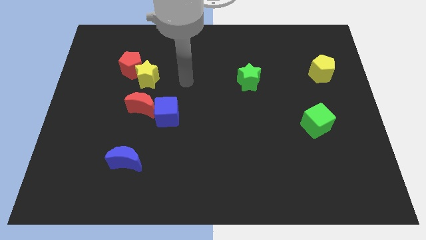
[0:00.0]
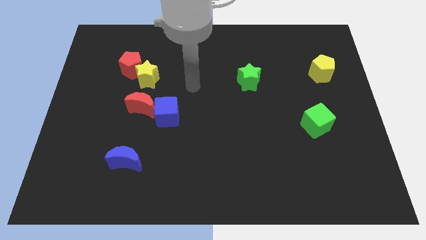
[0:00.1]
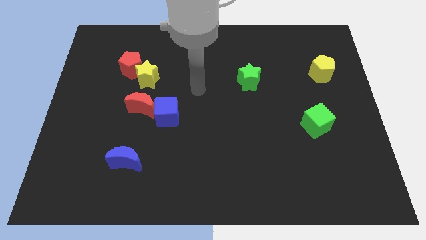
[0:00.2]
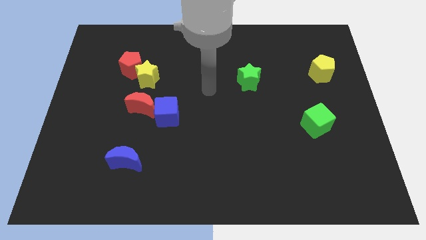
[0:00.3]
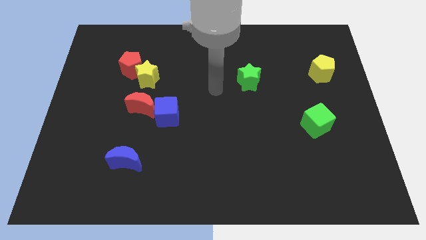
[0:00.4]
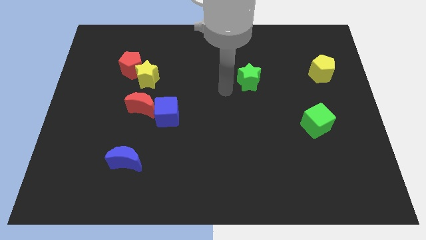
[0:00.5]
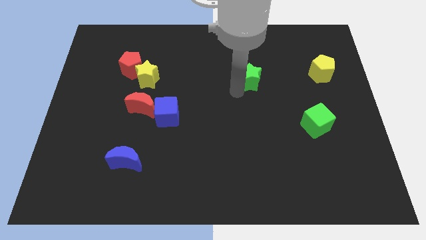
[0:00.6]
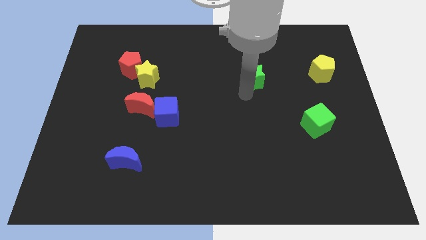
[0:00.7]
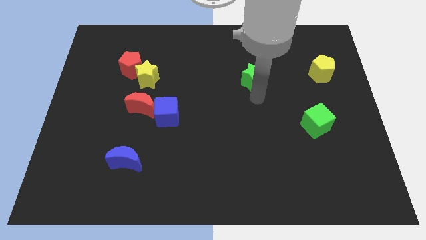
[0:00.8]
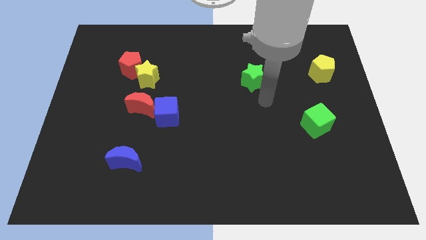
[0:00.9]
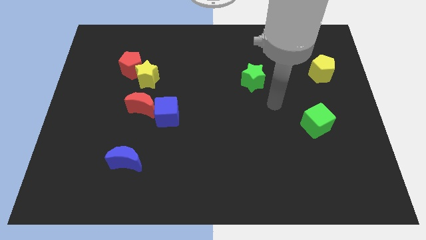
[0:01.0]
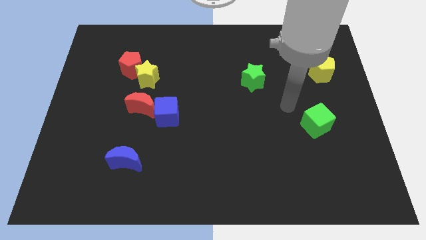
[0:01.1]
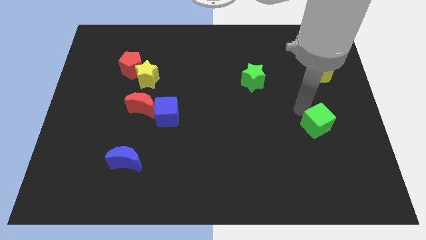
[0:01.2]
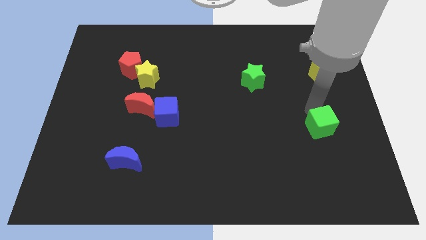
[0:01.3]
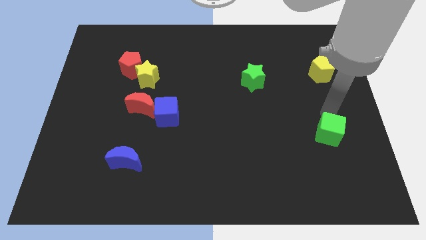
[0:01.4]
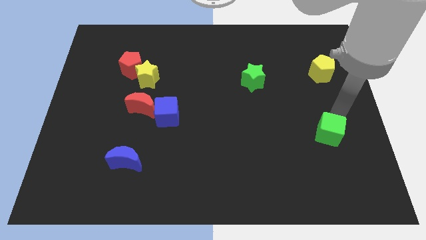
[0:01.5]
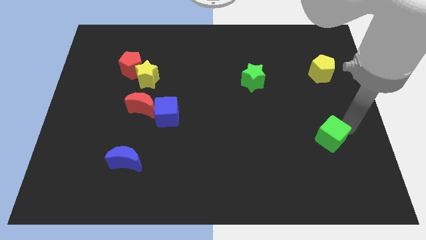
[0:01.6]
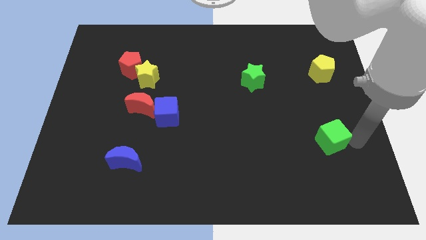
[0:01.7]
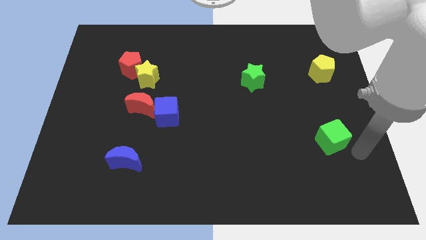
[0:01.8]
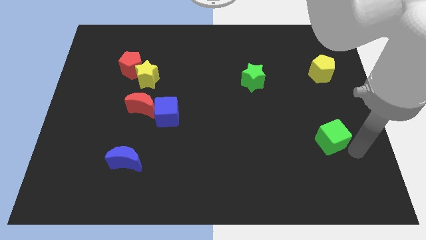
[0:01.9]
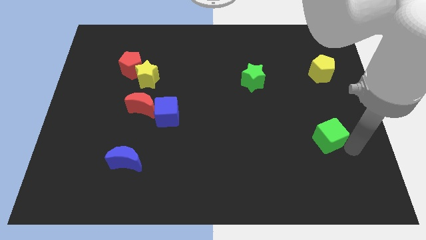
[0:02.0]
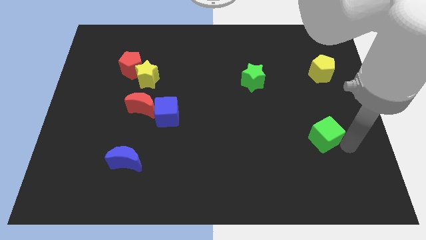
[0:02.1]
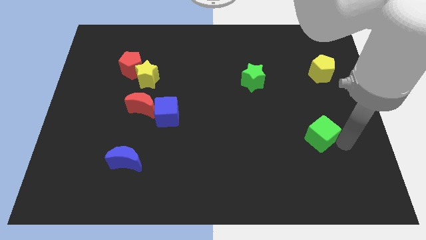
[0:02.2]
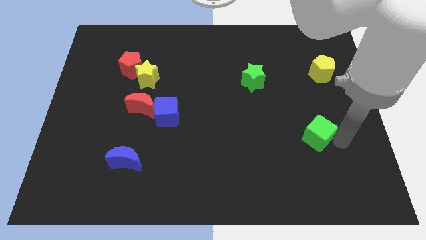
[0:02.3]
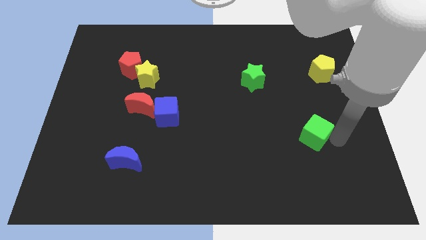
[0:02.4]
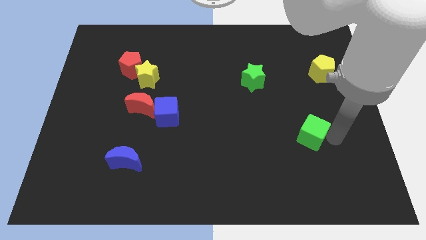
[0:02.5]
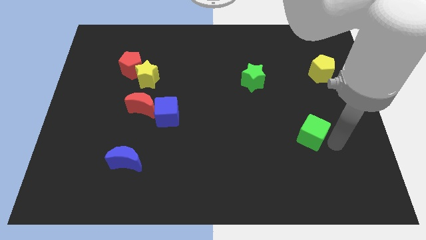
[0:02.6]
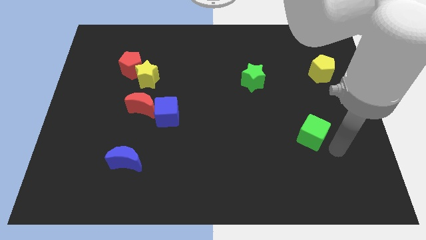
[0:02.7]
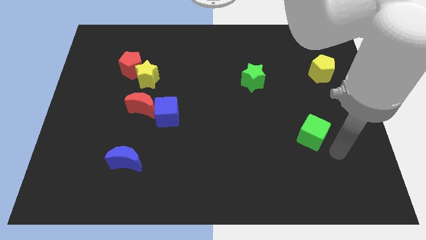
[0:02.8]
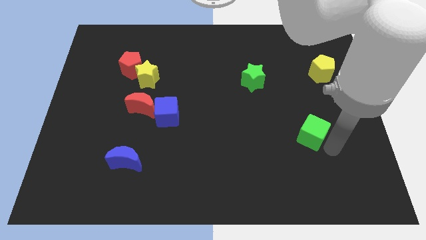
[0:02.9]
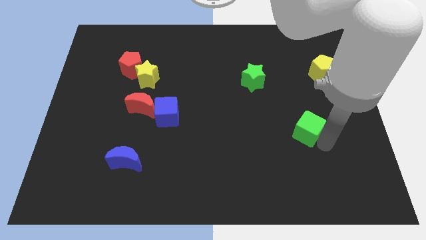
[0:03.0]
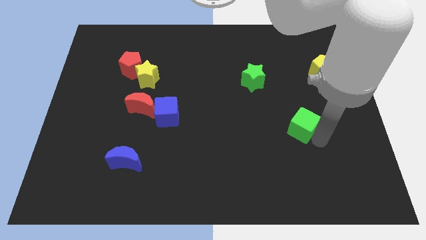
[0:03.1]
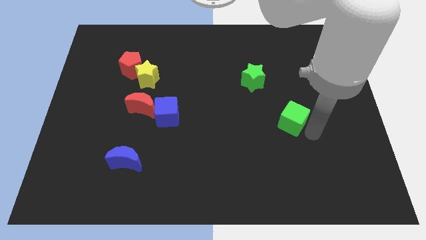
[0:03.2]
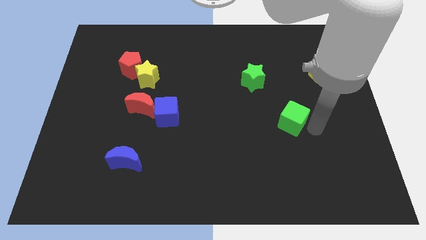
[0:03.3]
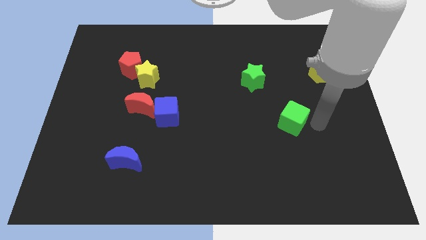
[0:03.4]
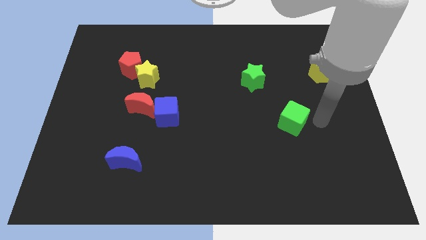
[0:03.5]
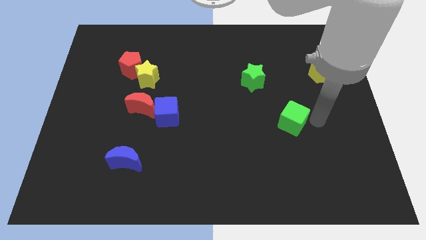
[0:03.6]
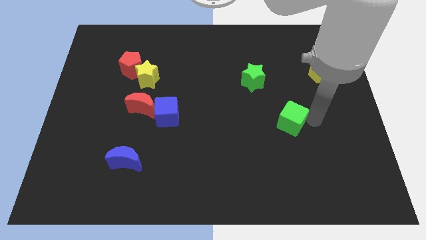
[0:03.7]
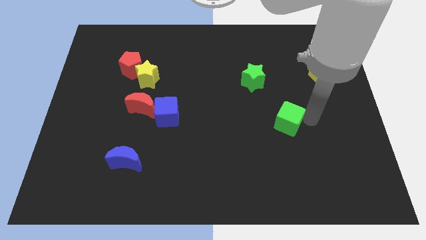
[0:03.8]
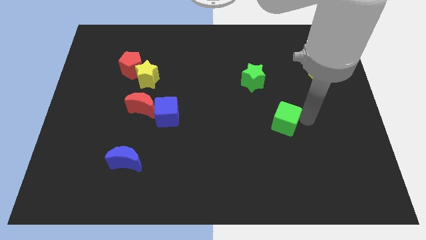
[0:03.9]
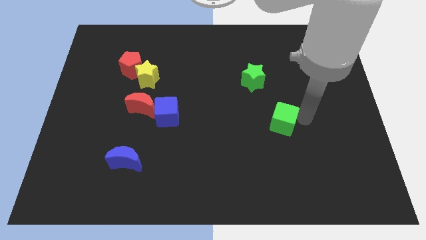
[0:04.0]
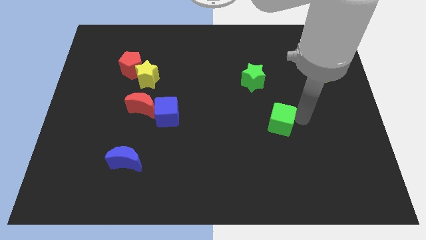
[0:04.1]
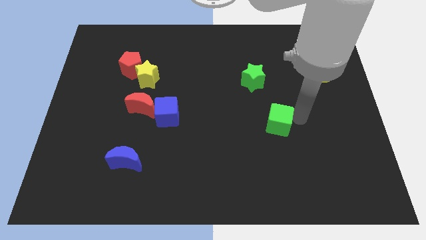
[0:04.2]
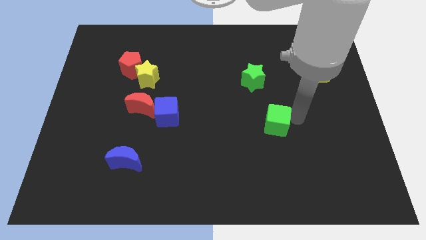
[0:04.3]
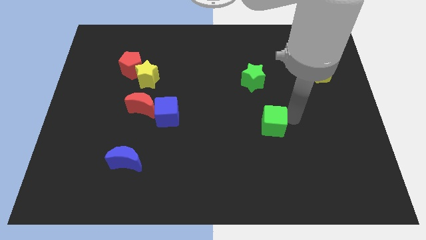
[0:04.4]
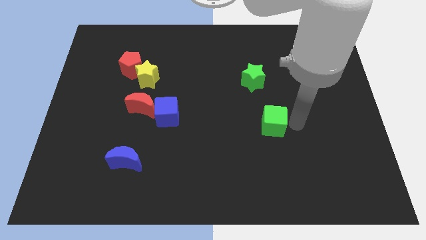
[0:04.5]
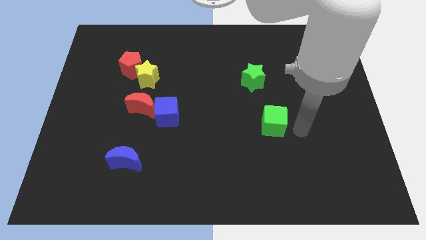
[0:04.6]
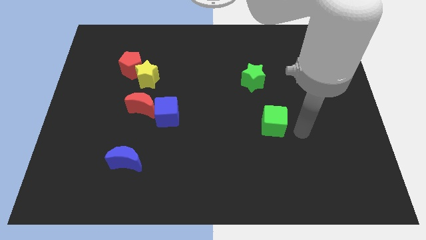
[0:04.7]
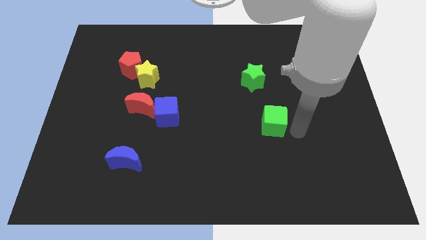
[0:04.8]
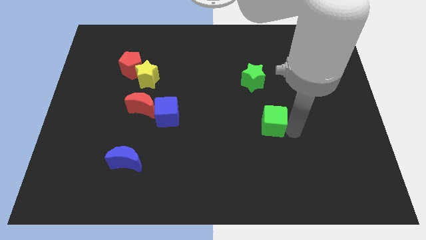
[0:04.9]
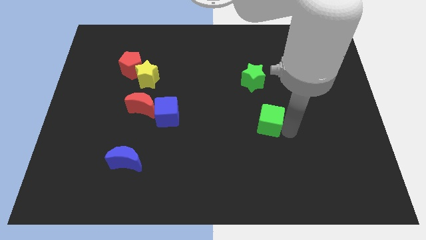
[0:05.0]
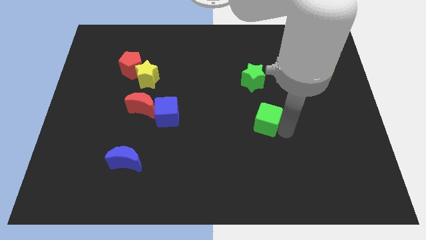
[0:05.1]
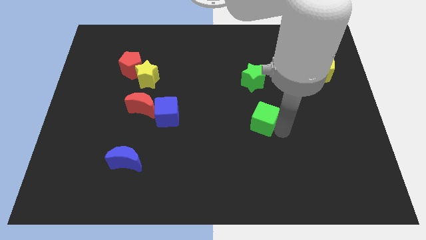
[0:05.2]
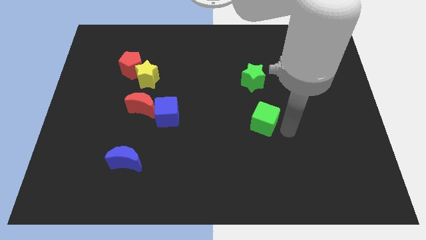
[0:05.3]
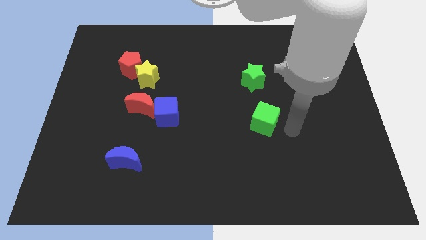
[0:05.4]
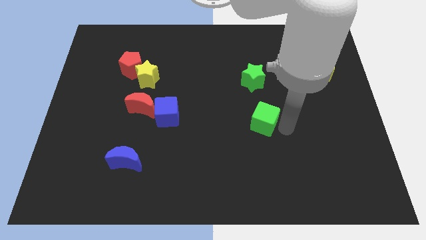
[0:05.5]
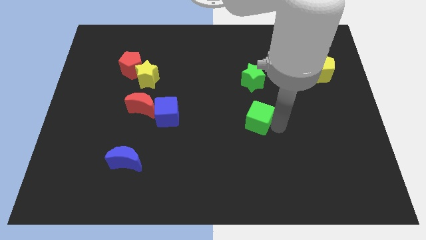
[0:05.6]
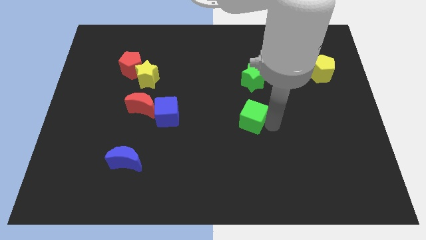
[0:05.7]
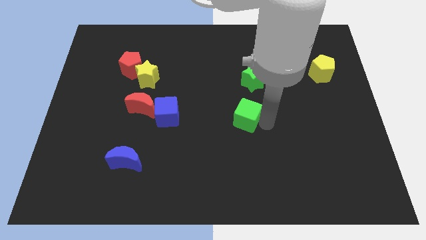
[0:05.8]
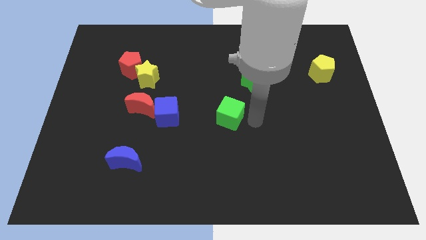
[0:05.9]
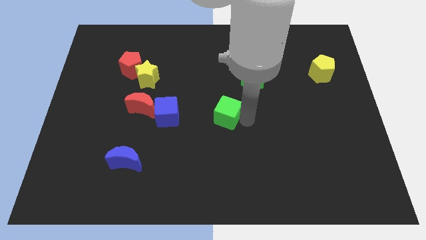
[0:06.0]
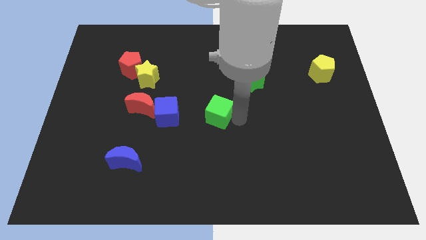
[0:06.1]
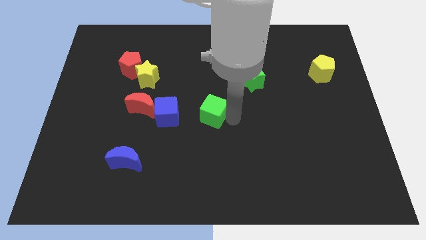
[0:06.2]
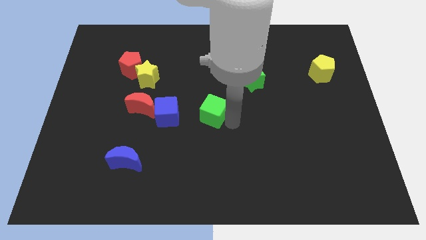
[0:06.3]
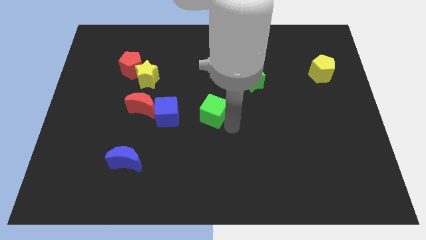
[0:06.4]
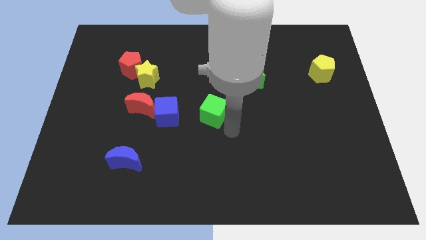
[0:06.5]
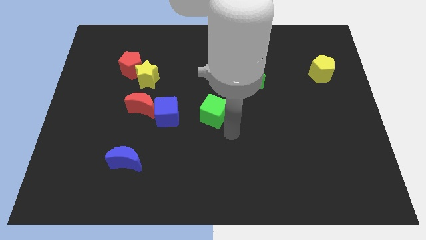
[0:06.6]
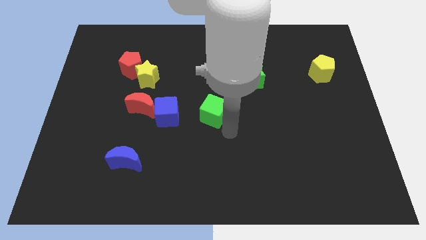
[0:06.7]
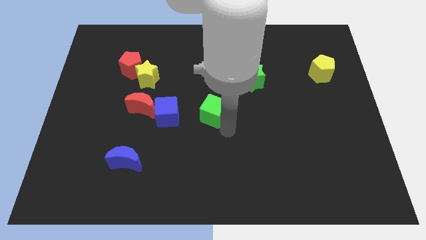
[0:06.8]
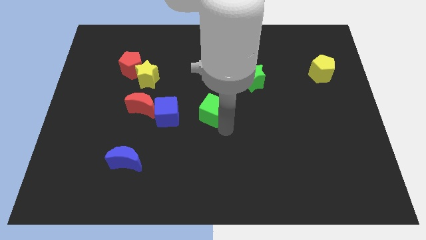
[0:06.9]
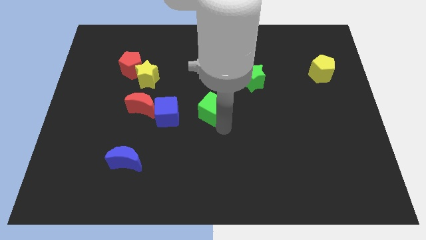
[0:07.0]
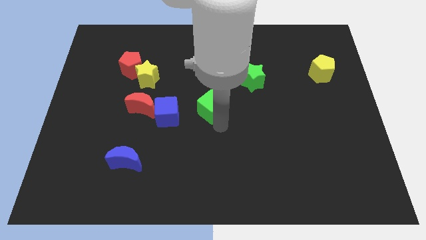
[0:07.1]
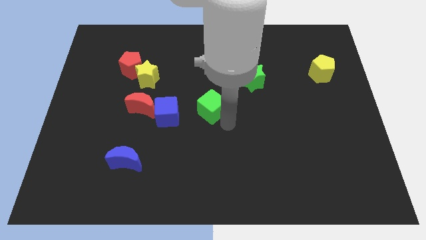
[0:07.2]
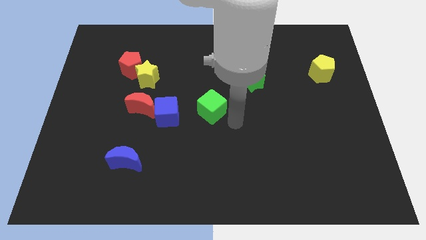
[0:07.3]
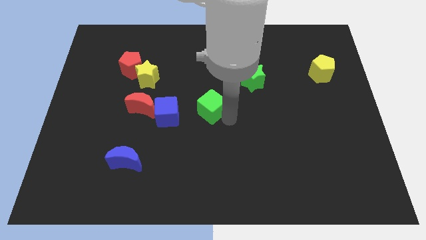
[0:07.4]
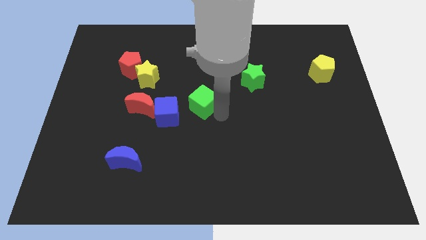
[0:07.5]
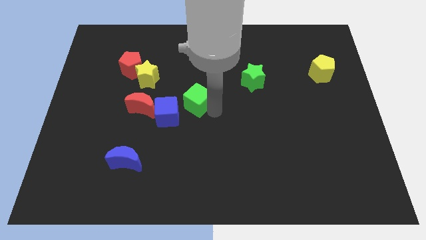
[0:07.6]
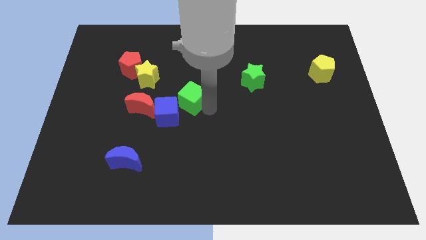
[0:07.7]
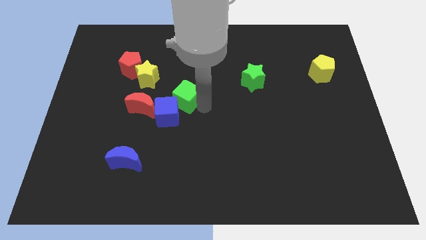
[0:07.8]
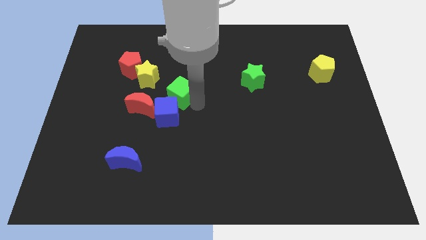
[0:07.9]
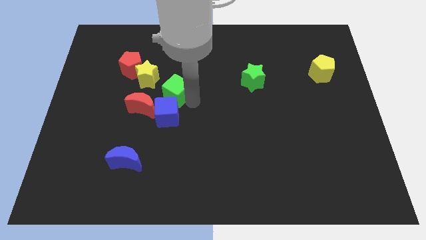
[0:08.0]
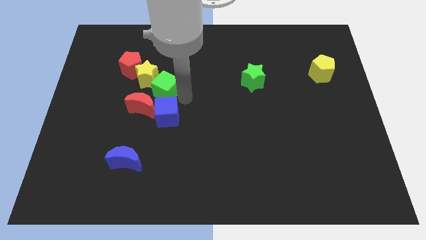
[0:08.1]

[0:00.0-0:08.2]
move the green cube to the yellow star
